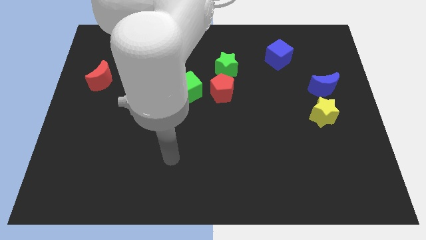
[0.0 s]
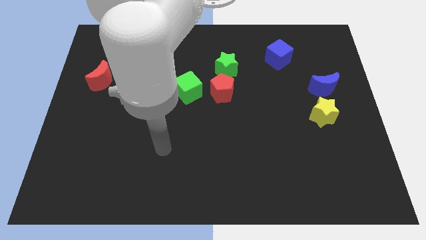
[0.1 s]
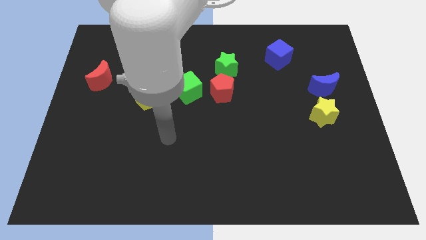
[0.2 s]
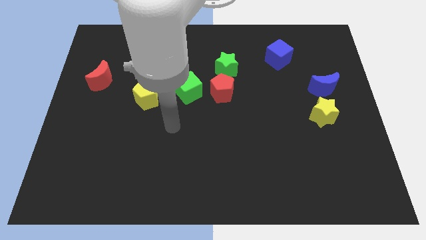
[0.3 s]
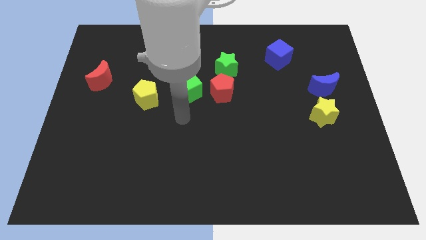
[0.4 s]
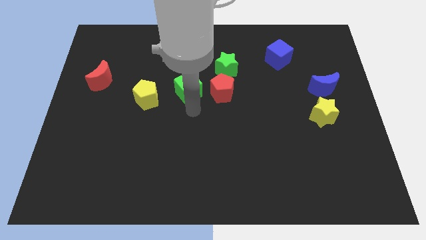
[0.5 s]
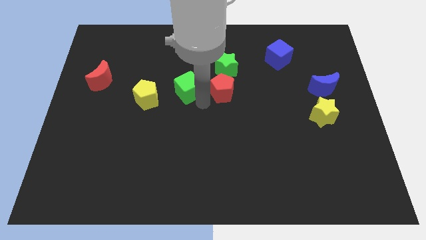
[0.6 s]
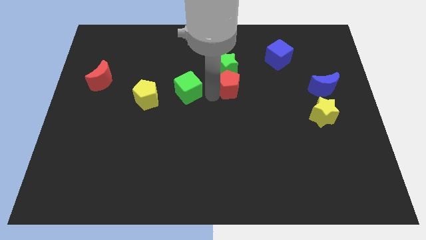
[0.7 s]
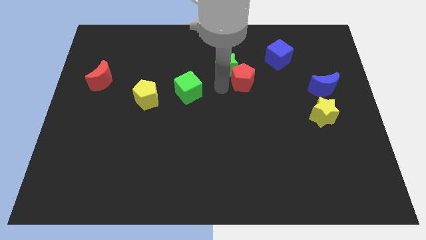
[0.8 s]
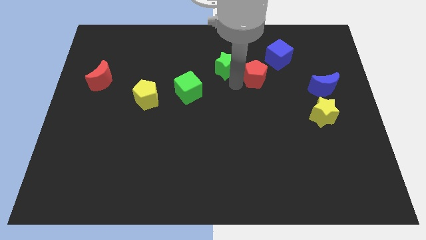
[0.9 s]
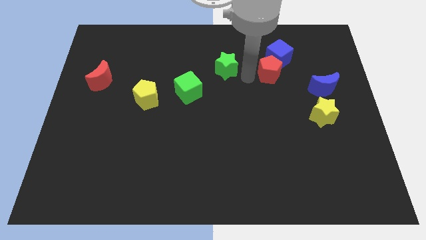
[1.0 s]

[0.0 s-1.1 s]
separate the green star from the red pentagon

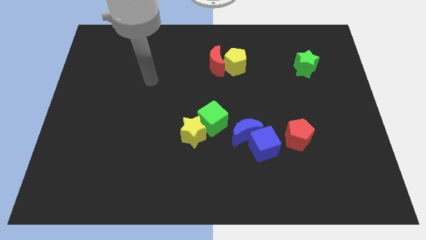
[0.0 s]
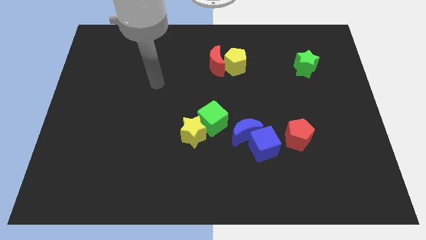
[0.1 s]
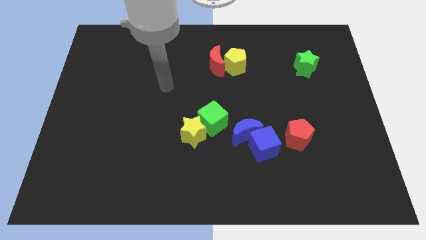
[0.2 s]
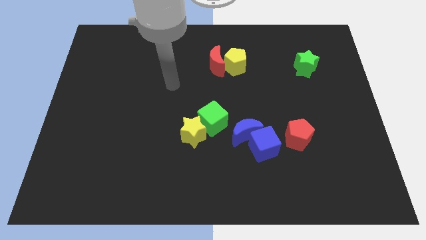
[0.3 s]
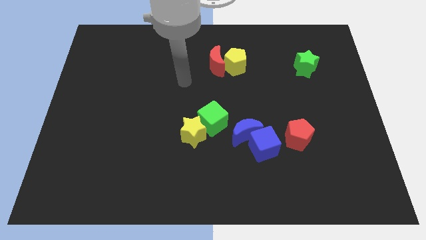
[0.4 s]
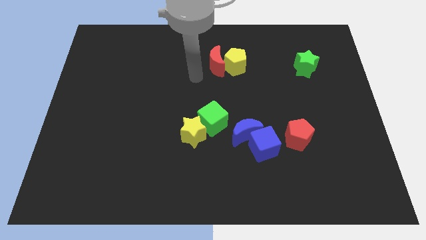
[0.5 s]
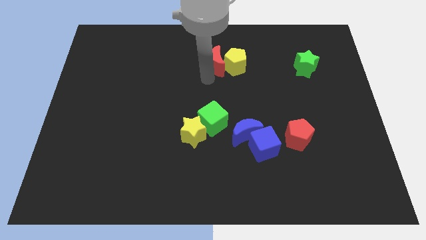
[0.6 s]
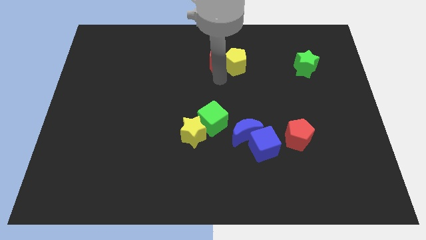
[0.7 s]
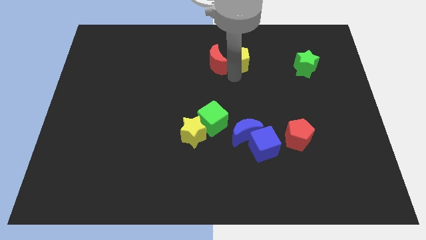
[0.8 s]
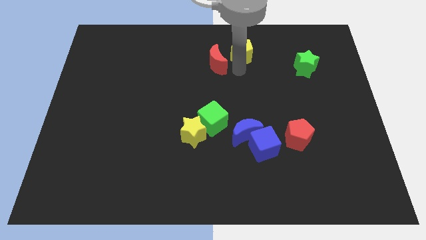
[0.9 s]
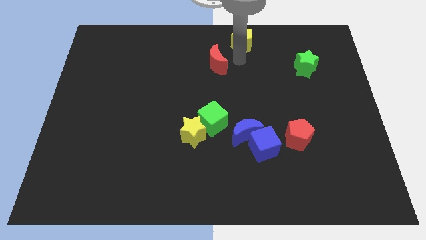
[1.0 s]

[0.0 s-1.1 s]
separate the red moon from the yellow pentagon

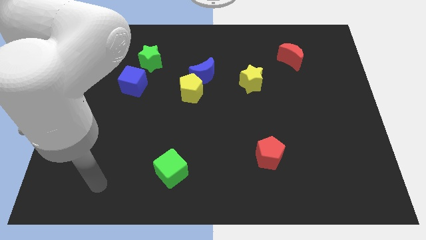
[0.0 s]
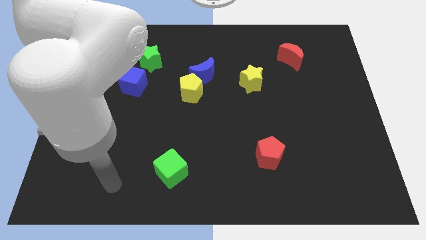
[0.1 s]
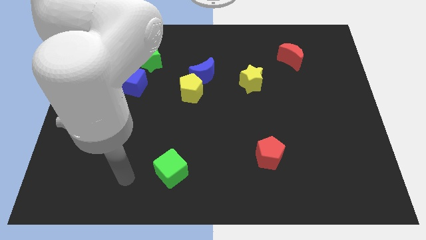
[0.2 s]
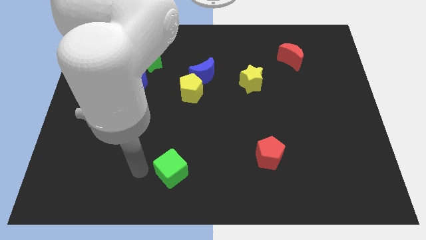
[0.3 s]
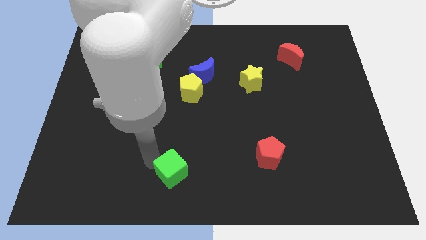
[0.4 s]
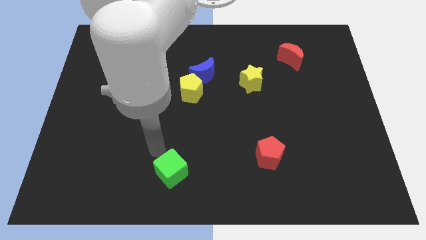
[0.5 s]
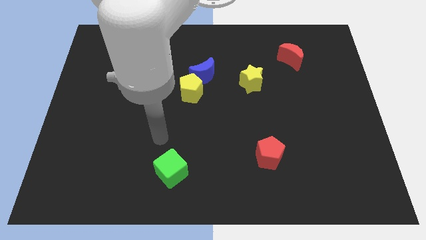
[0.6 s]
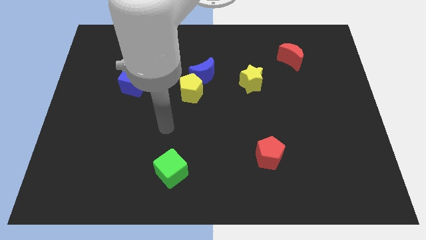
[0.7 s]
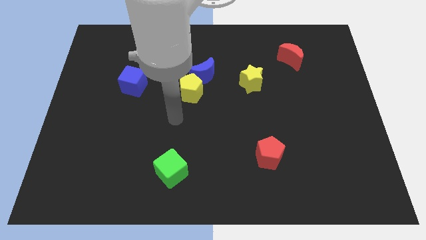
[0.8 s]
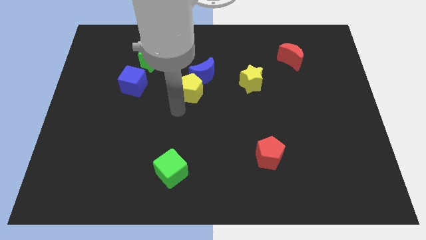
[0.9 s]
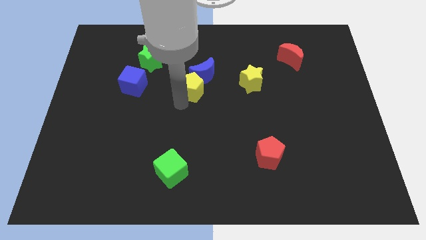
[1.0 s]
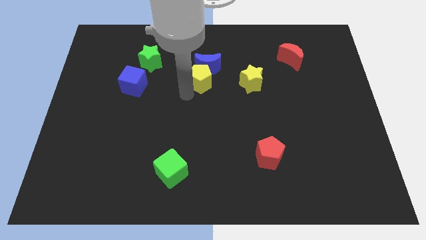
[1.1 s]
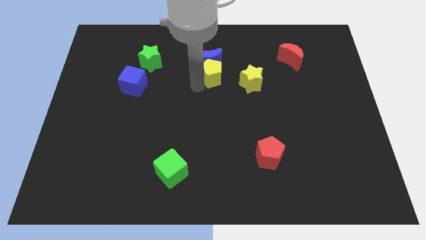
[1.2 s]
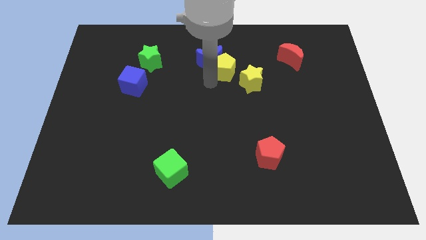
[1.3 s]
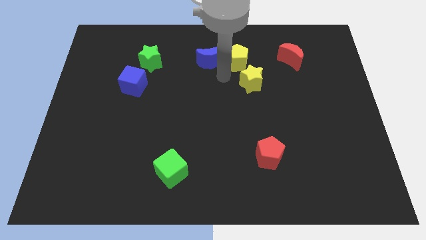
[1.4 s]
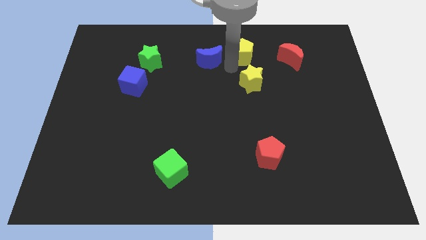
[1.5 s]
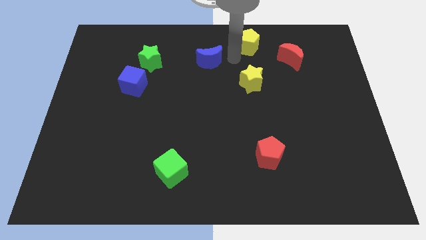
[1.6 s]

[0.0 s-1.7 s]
separate the blue moon from the yellow pentagon

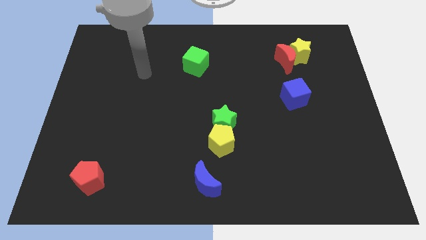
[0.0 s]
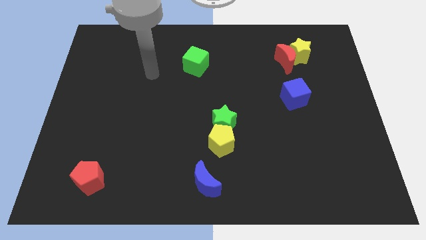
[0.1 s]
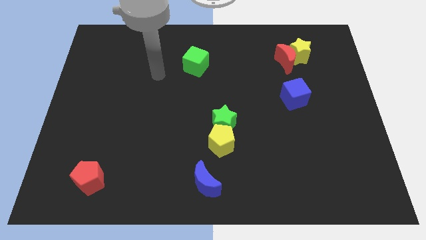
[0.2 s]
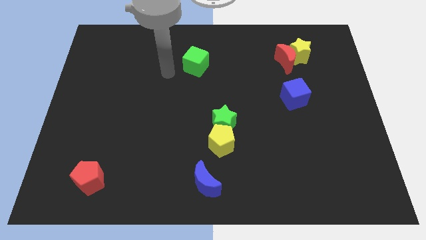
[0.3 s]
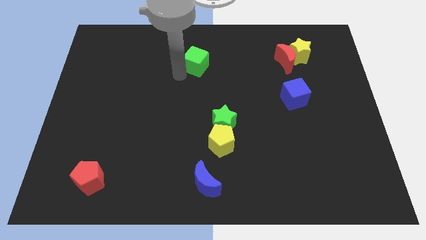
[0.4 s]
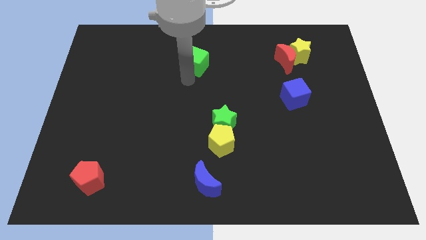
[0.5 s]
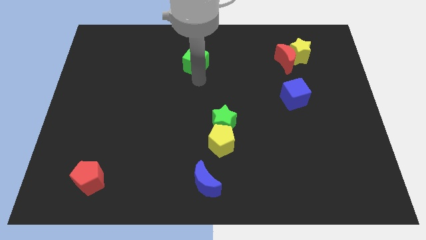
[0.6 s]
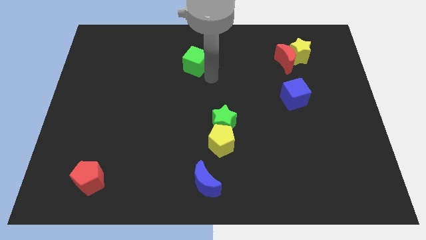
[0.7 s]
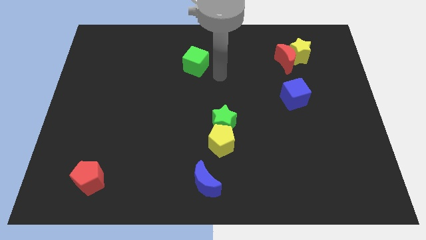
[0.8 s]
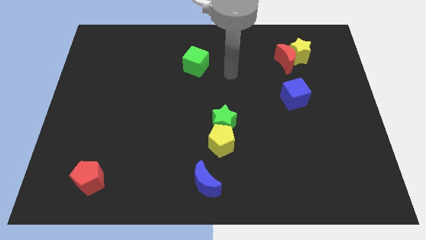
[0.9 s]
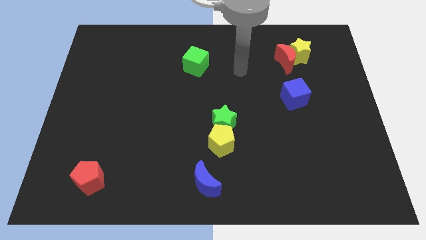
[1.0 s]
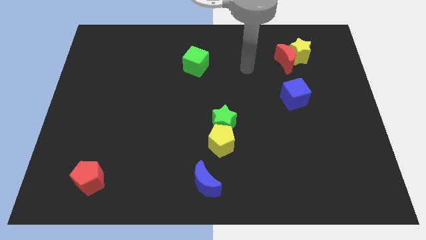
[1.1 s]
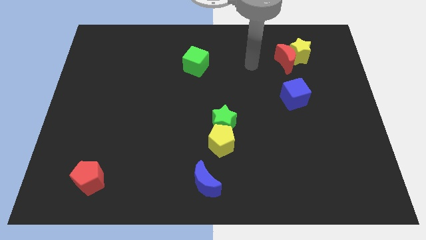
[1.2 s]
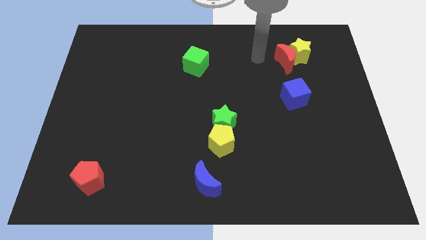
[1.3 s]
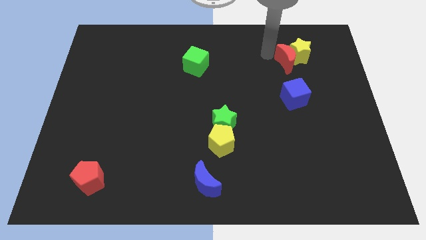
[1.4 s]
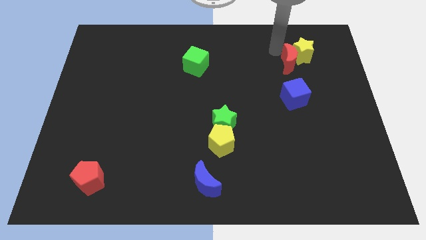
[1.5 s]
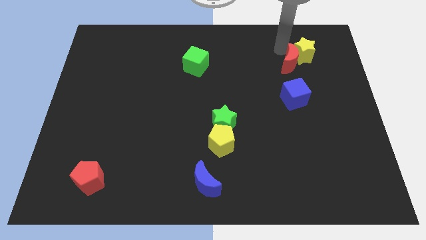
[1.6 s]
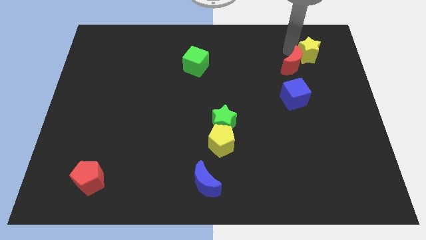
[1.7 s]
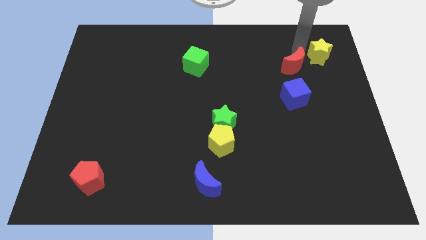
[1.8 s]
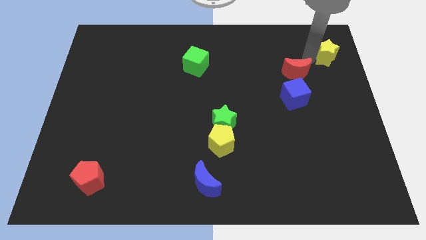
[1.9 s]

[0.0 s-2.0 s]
move the red moon away from the yellow star

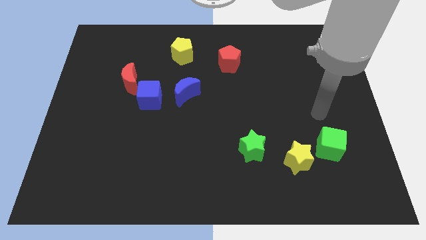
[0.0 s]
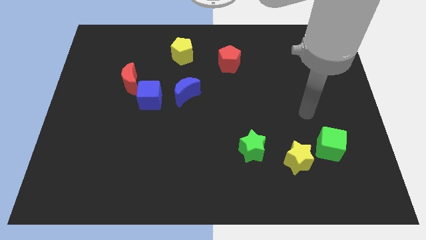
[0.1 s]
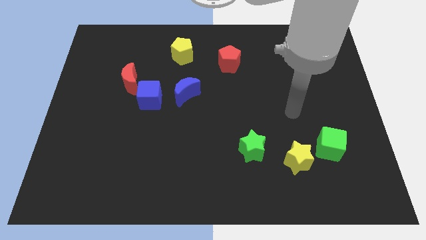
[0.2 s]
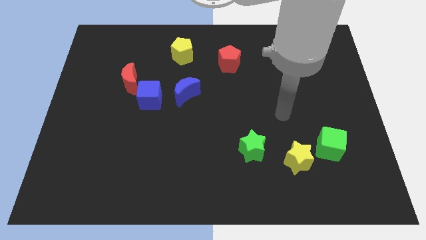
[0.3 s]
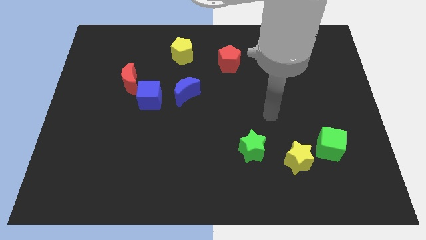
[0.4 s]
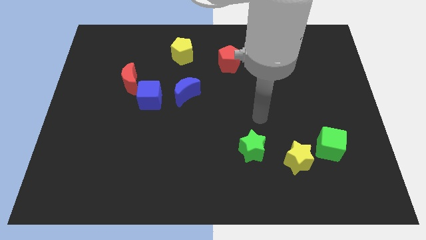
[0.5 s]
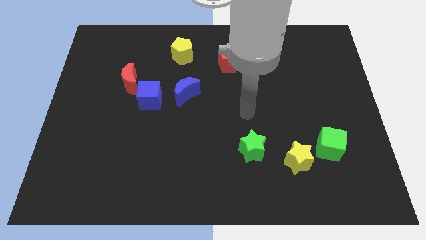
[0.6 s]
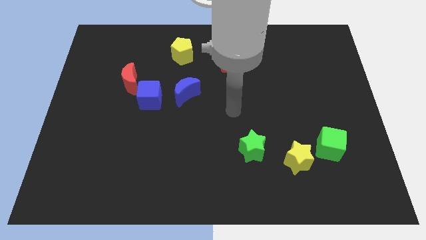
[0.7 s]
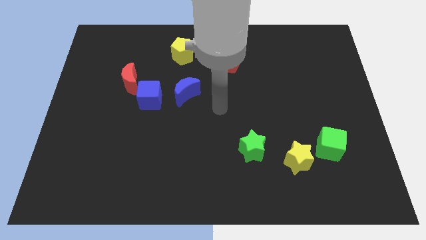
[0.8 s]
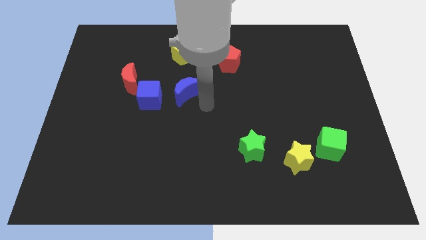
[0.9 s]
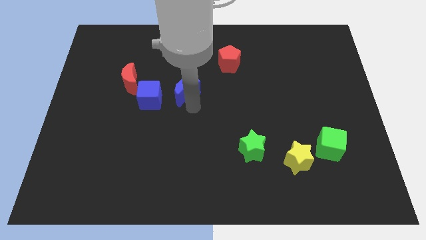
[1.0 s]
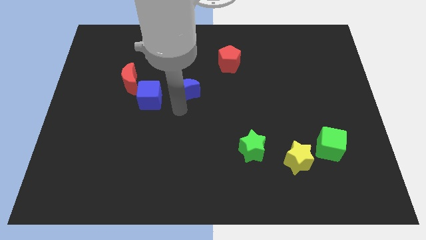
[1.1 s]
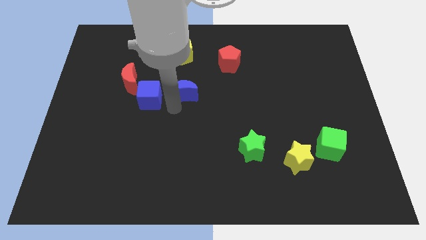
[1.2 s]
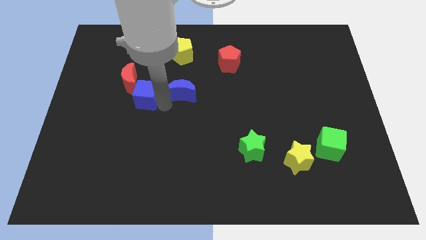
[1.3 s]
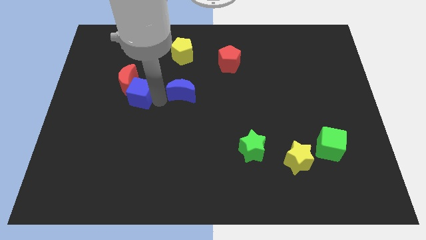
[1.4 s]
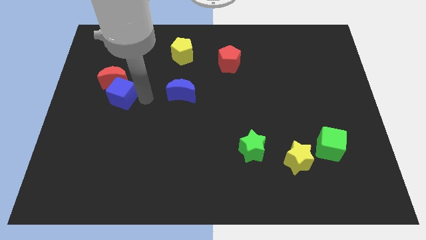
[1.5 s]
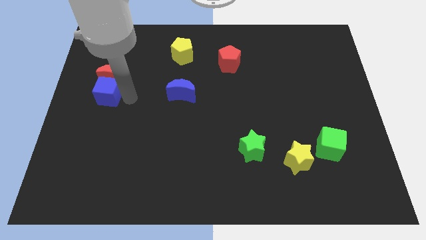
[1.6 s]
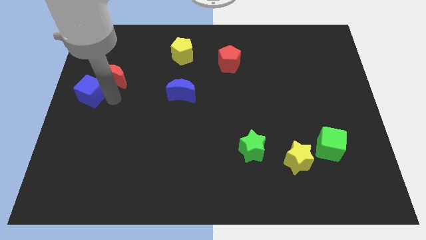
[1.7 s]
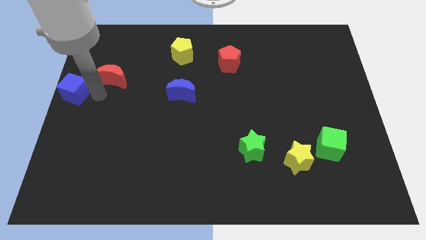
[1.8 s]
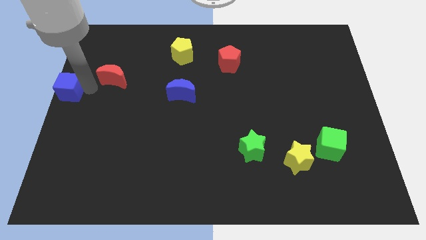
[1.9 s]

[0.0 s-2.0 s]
pull the red moon apart from the blue cube

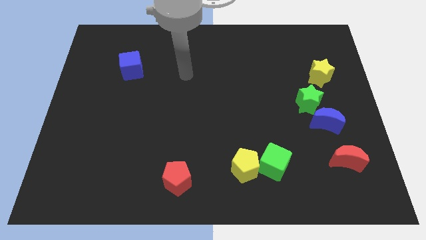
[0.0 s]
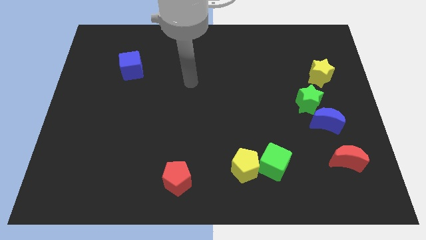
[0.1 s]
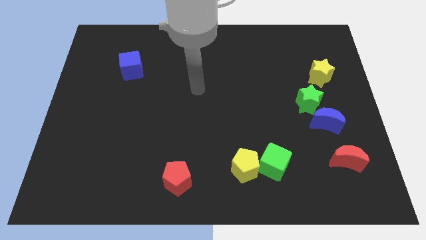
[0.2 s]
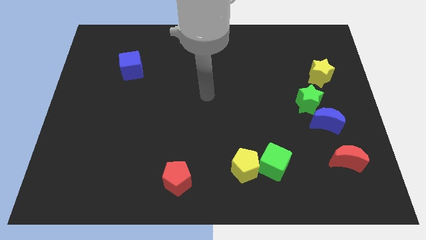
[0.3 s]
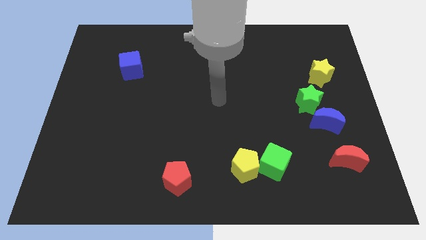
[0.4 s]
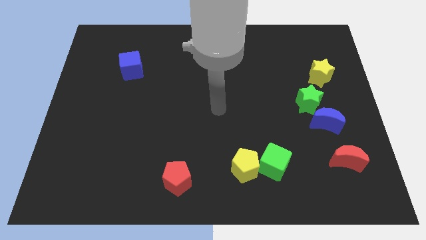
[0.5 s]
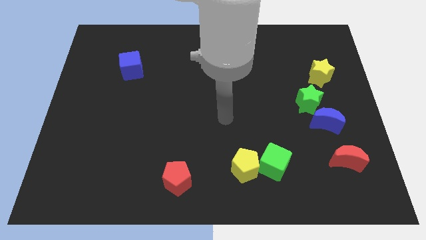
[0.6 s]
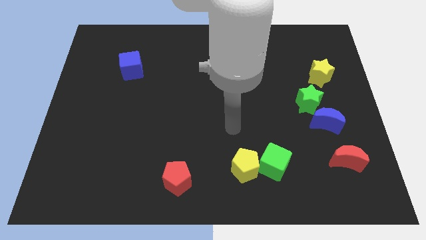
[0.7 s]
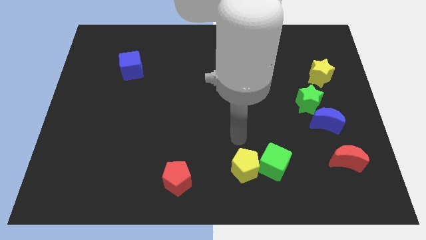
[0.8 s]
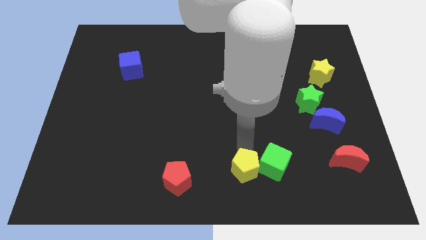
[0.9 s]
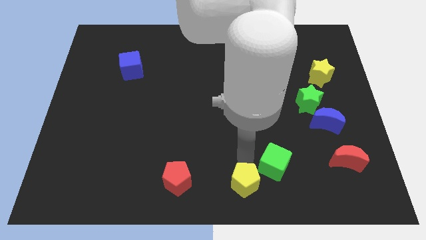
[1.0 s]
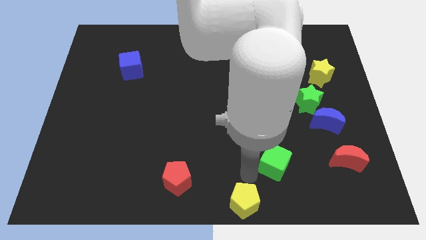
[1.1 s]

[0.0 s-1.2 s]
move the green cube away from the yellow pentagon

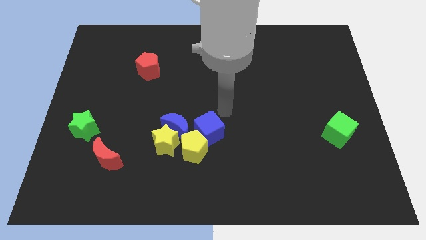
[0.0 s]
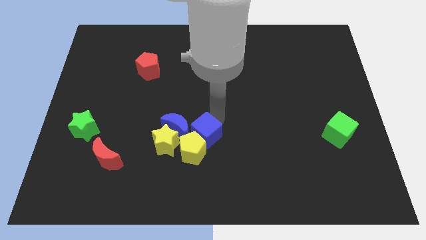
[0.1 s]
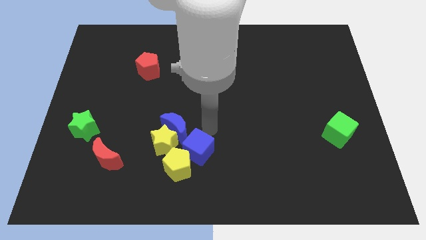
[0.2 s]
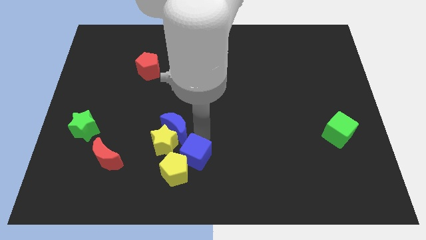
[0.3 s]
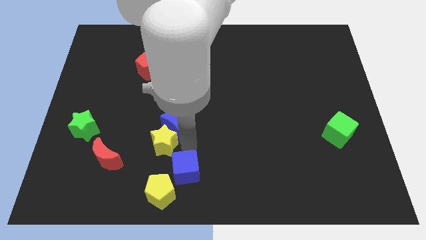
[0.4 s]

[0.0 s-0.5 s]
pull the blue moon apart from the group
